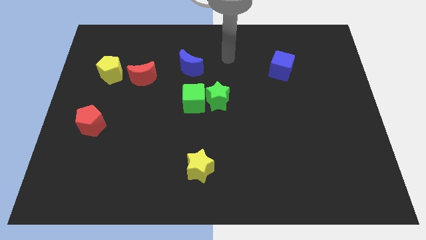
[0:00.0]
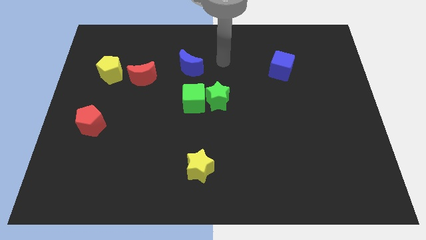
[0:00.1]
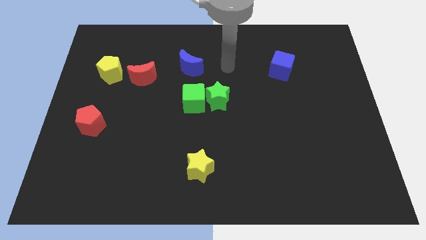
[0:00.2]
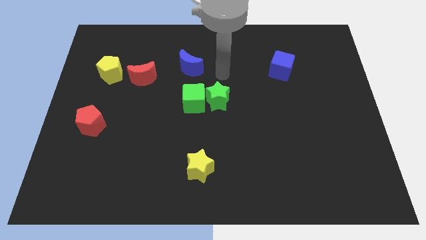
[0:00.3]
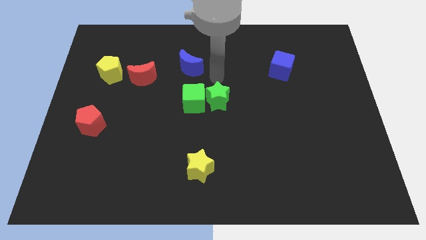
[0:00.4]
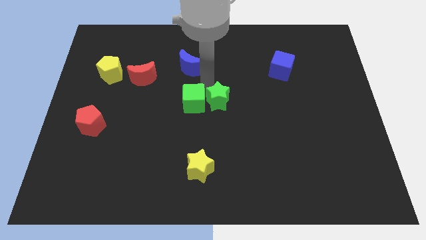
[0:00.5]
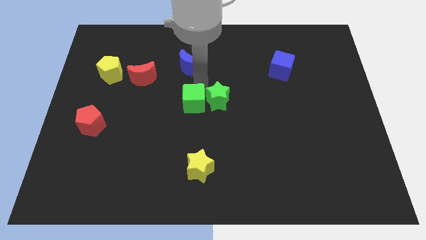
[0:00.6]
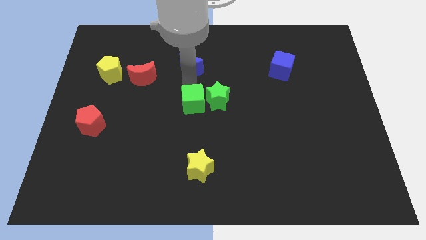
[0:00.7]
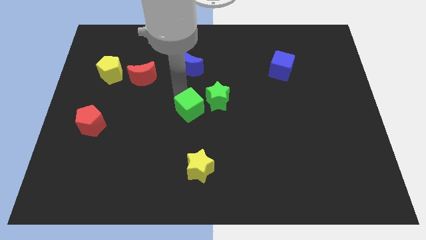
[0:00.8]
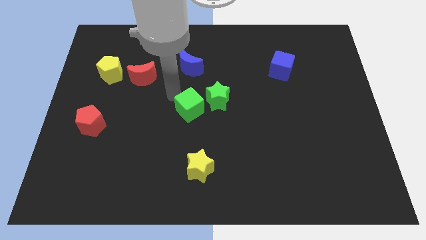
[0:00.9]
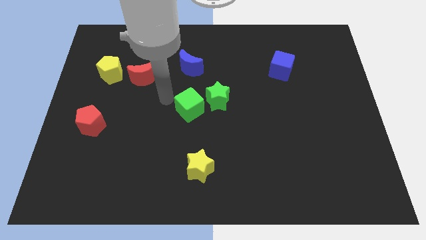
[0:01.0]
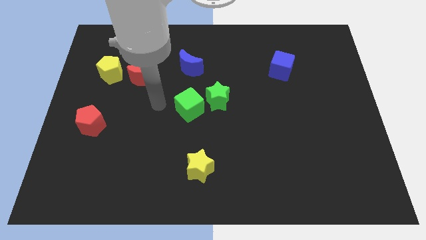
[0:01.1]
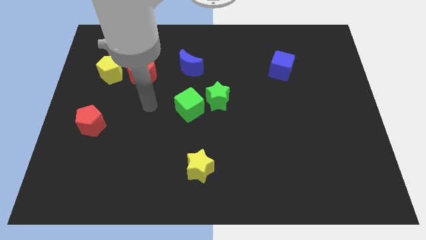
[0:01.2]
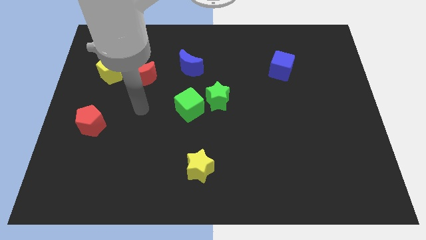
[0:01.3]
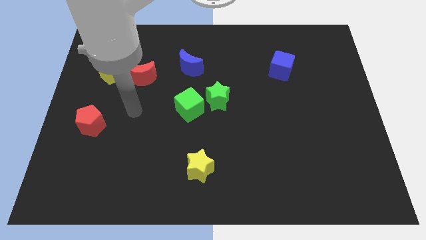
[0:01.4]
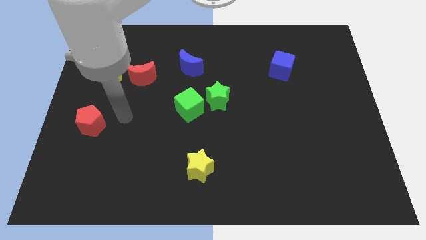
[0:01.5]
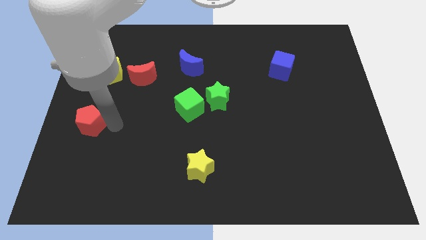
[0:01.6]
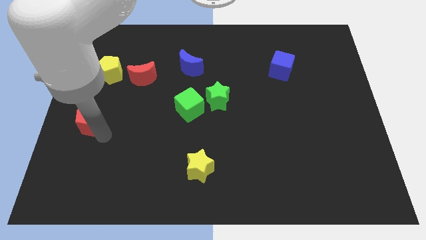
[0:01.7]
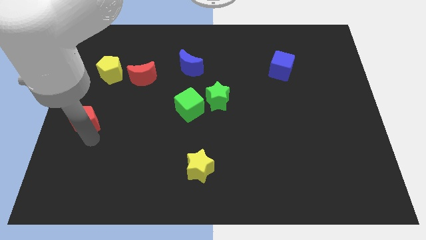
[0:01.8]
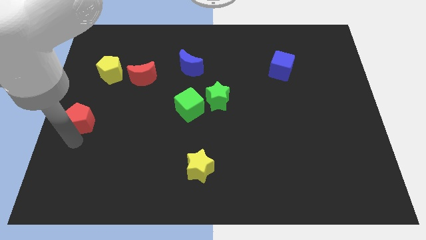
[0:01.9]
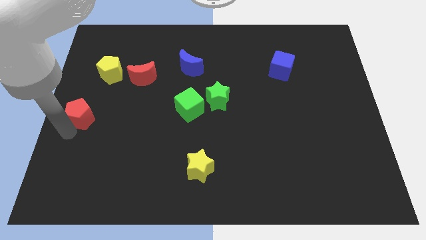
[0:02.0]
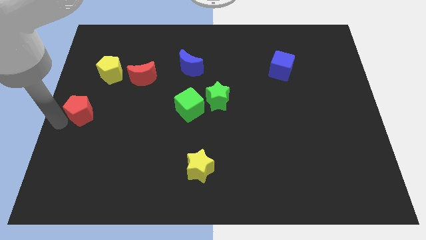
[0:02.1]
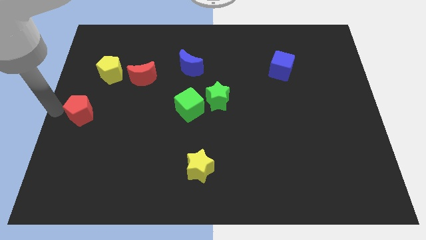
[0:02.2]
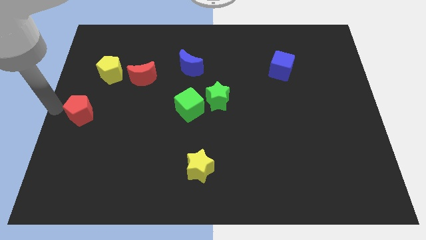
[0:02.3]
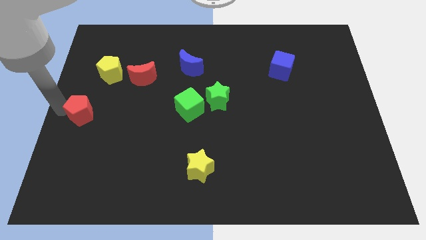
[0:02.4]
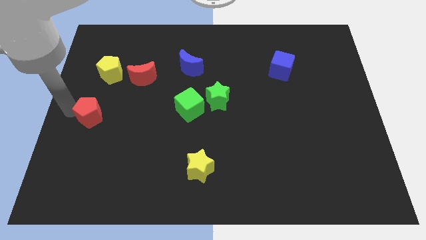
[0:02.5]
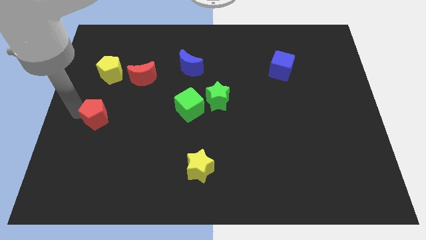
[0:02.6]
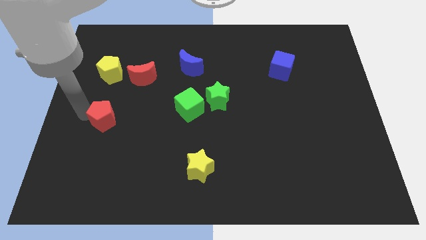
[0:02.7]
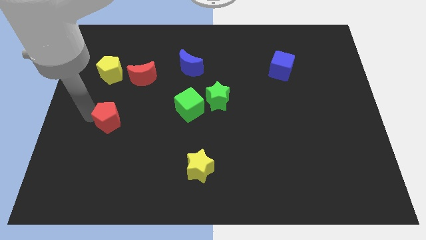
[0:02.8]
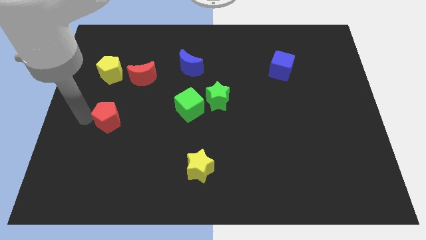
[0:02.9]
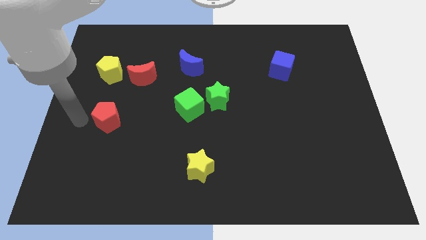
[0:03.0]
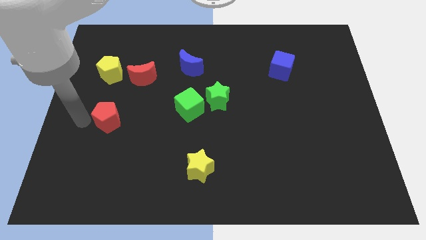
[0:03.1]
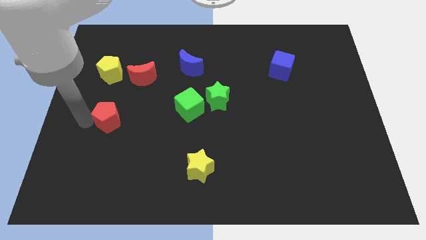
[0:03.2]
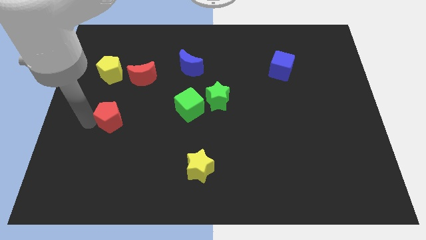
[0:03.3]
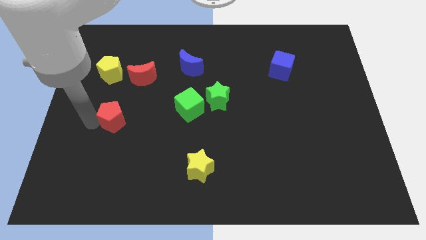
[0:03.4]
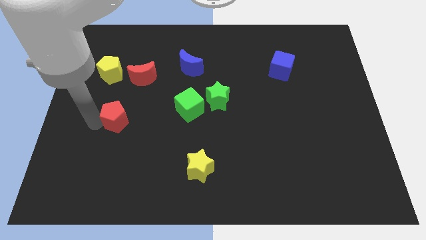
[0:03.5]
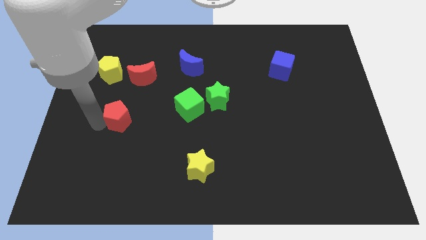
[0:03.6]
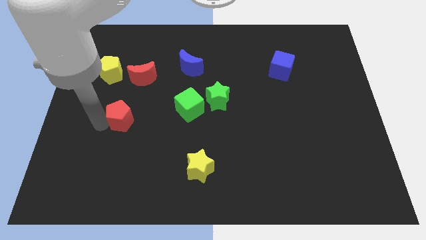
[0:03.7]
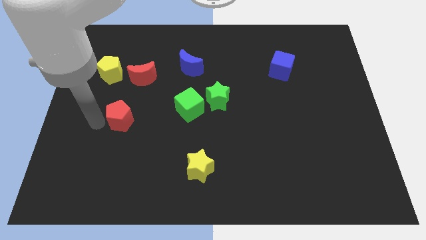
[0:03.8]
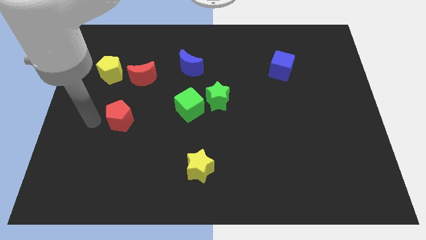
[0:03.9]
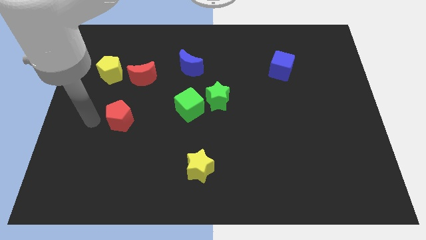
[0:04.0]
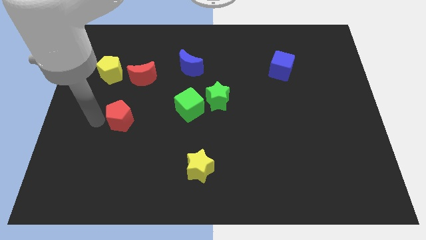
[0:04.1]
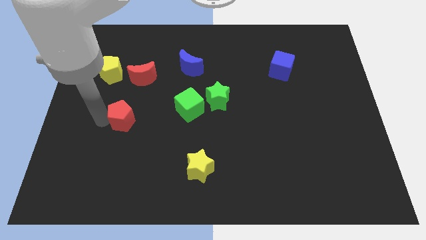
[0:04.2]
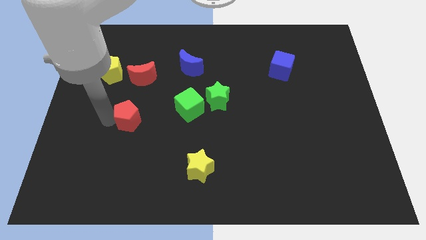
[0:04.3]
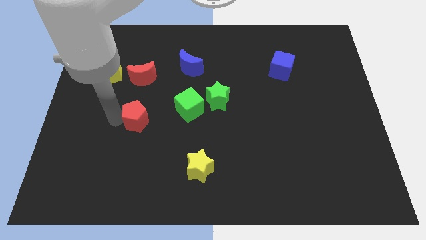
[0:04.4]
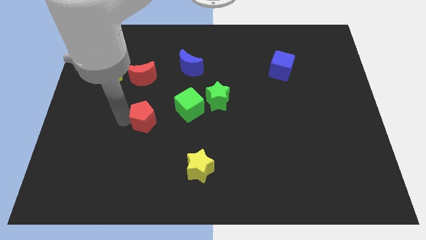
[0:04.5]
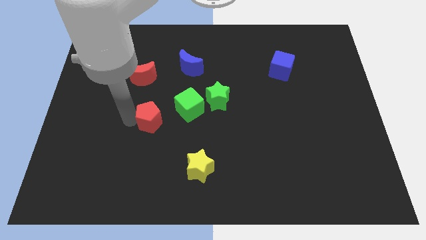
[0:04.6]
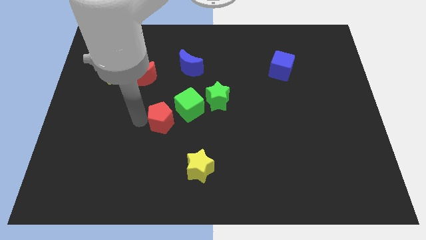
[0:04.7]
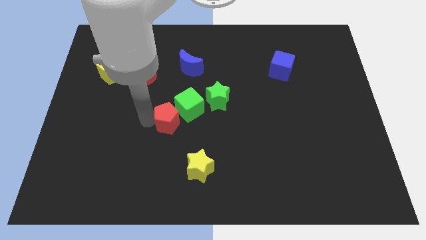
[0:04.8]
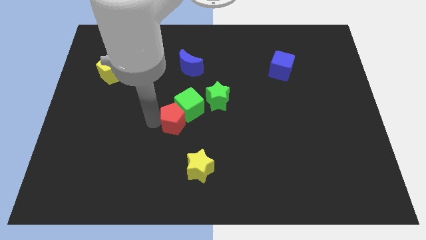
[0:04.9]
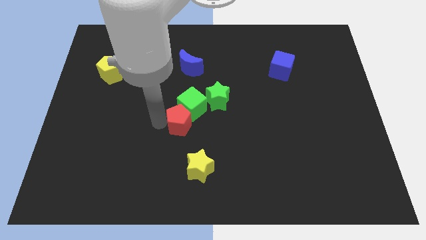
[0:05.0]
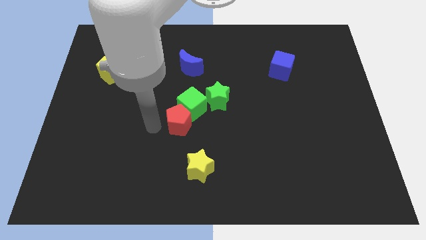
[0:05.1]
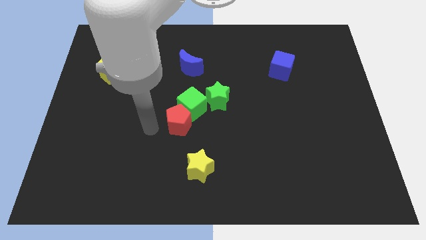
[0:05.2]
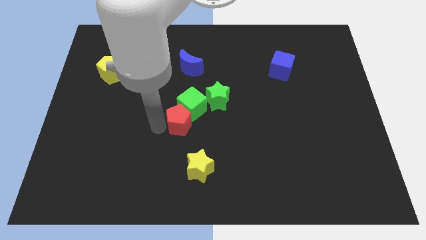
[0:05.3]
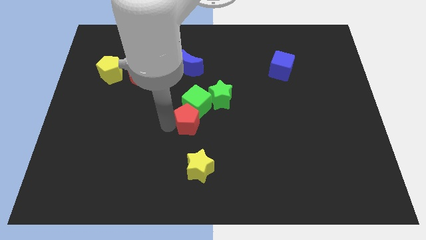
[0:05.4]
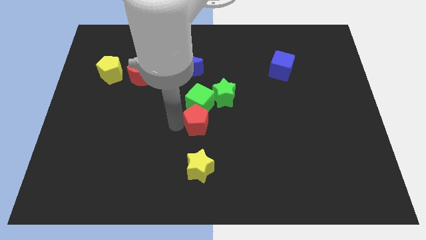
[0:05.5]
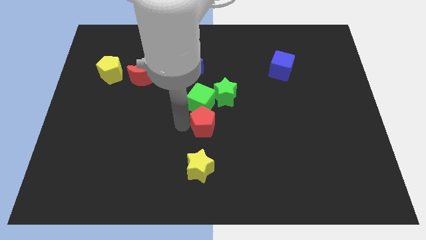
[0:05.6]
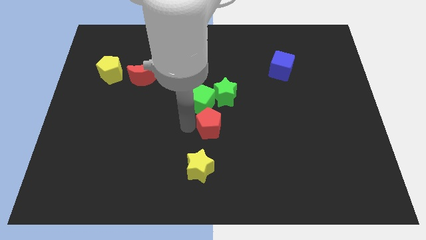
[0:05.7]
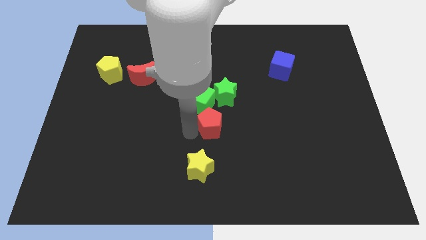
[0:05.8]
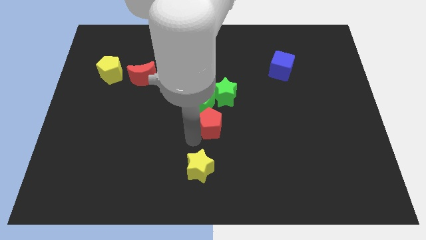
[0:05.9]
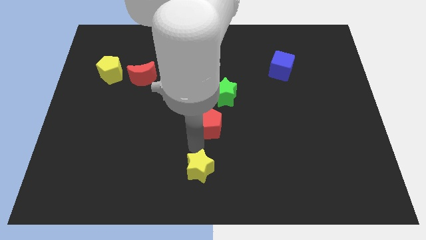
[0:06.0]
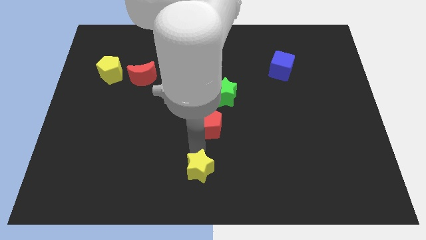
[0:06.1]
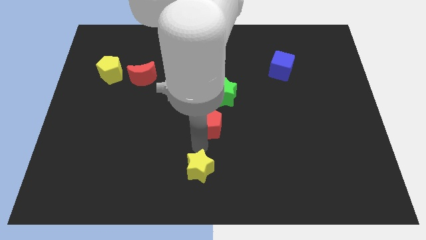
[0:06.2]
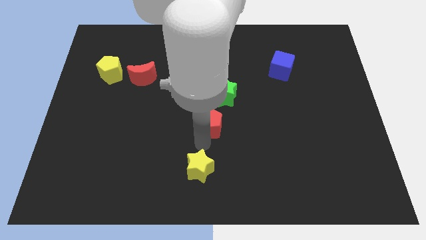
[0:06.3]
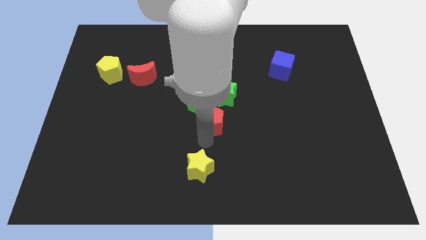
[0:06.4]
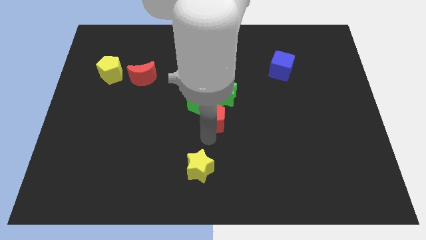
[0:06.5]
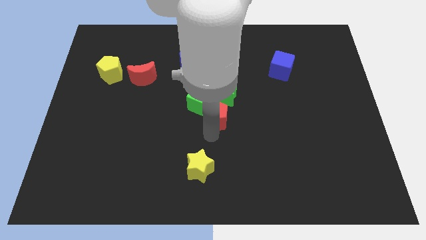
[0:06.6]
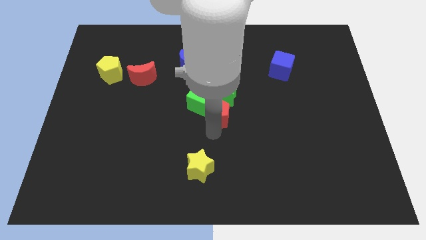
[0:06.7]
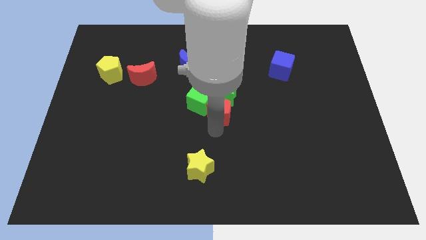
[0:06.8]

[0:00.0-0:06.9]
put the red pentagon close to the green star

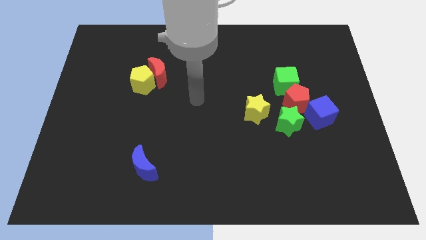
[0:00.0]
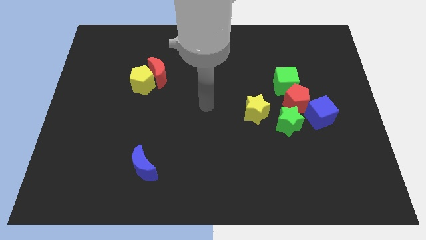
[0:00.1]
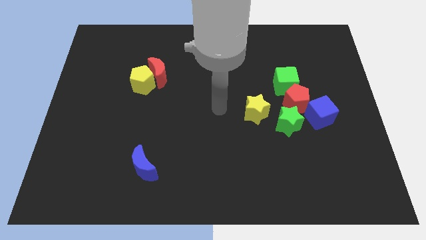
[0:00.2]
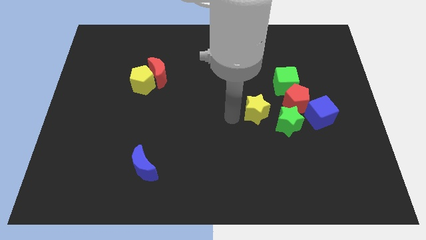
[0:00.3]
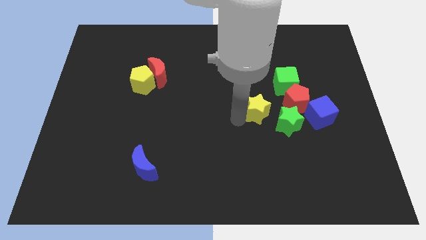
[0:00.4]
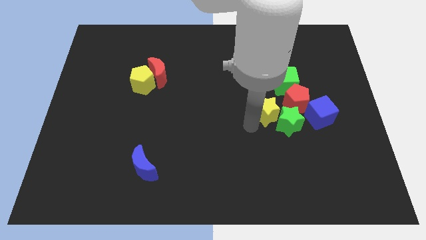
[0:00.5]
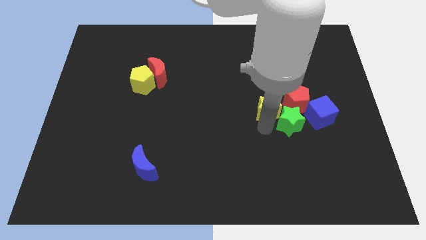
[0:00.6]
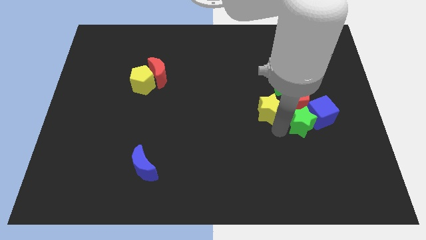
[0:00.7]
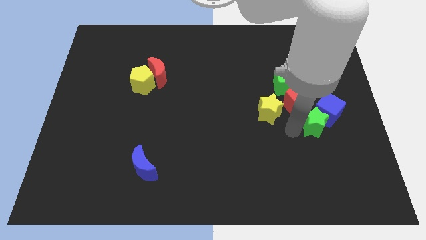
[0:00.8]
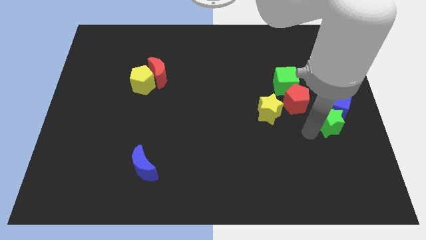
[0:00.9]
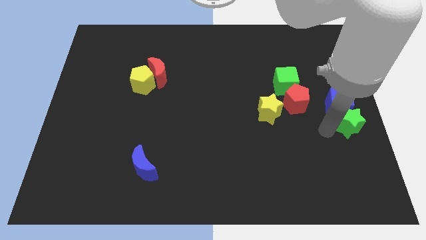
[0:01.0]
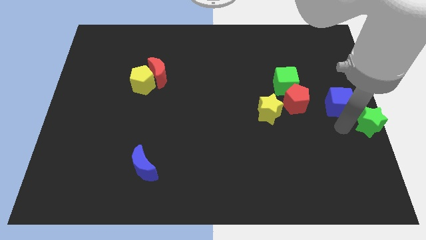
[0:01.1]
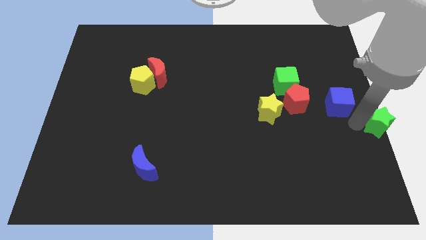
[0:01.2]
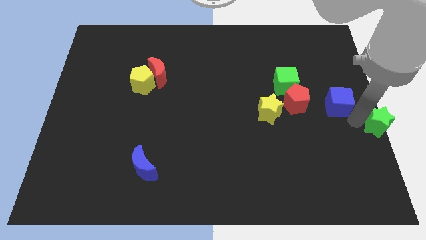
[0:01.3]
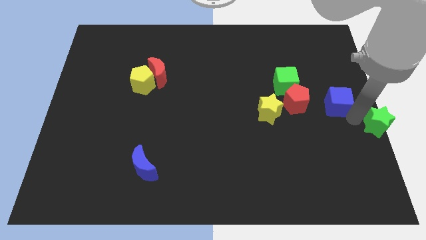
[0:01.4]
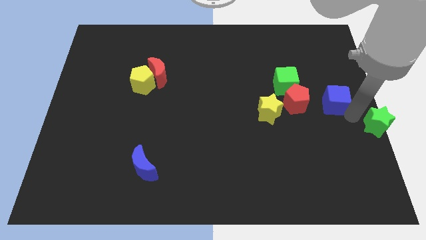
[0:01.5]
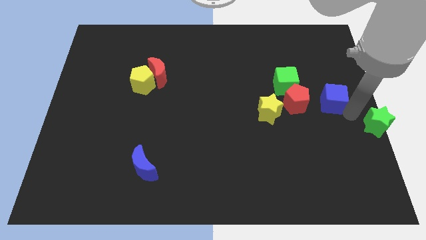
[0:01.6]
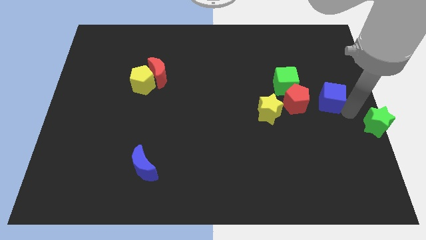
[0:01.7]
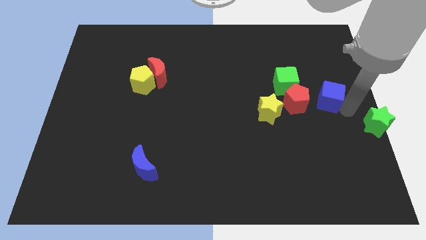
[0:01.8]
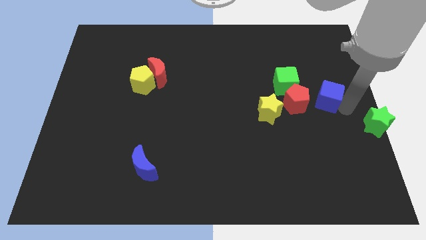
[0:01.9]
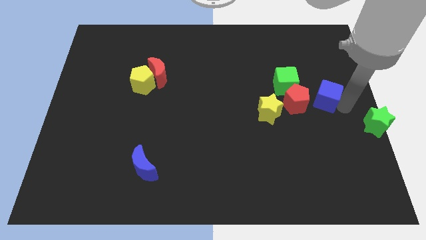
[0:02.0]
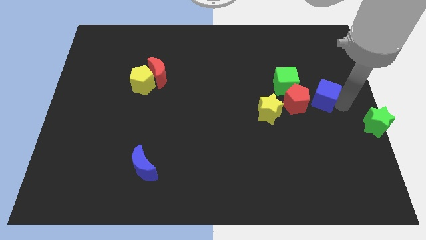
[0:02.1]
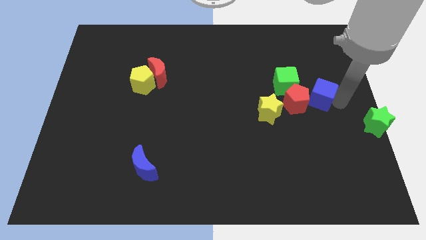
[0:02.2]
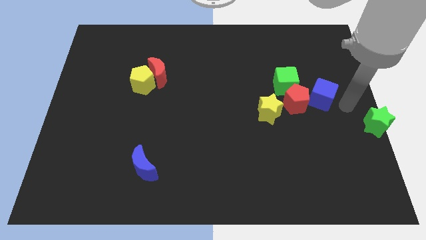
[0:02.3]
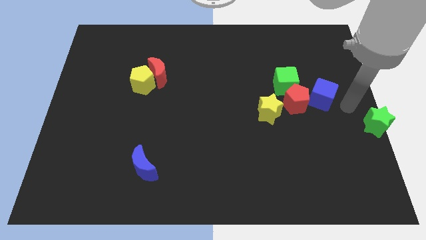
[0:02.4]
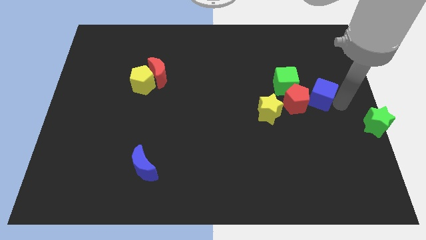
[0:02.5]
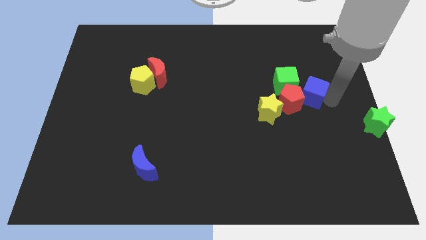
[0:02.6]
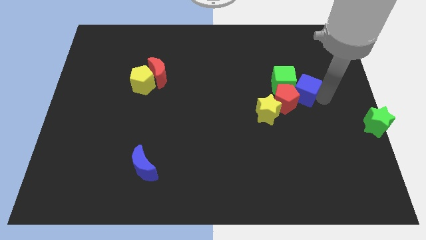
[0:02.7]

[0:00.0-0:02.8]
move the blue cube close to the green cube
